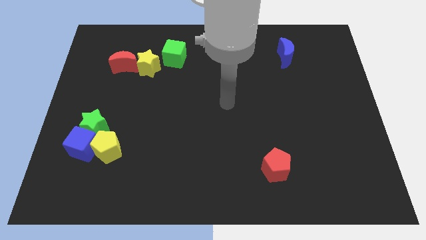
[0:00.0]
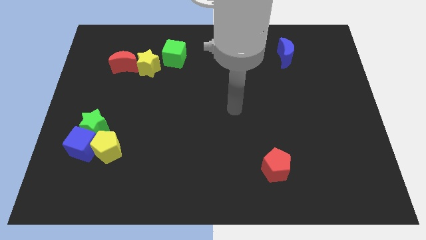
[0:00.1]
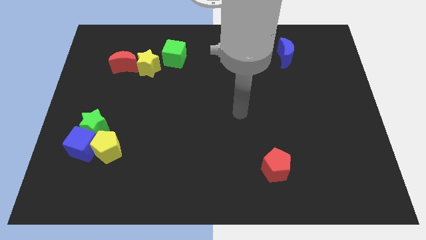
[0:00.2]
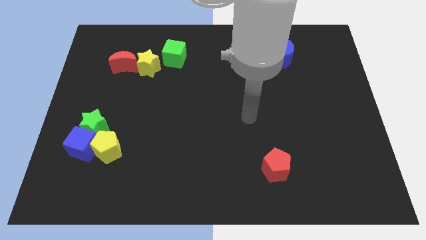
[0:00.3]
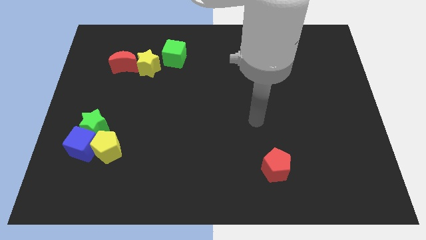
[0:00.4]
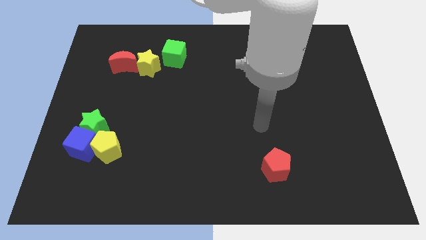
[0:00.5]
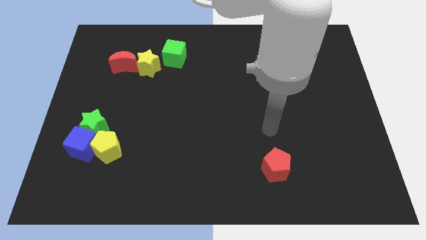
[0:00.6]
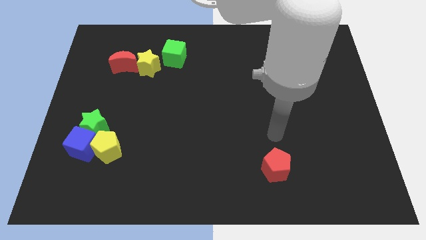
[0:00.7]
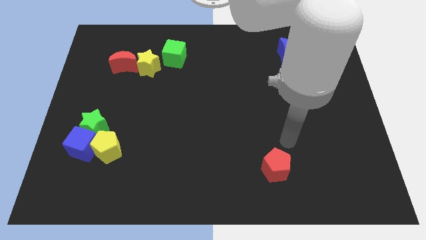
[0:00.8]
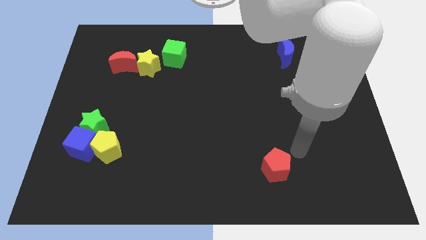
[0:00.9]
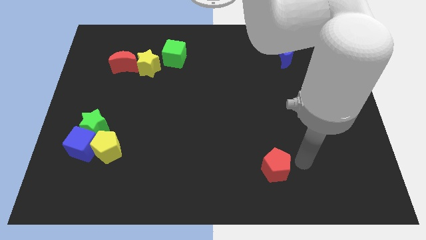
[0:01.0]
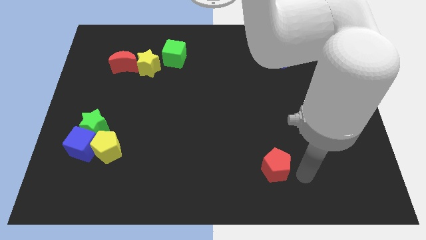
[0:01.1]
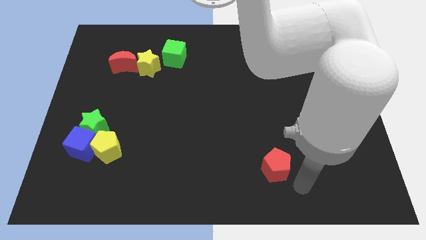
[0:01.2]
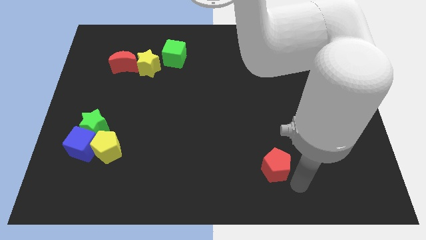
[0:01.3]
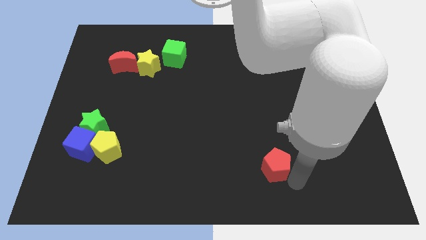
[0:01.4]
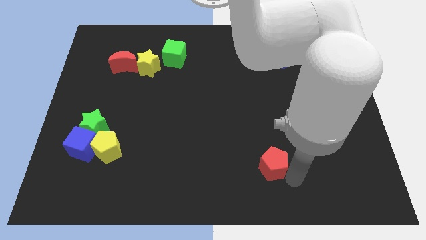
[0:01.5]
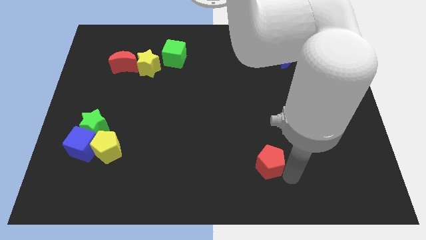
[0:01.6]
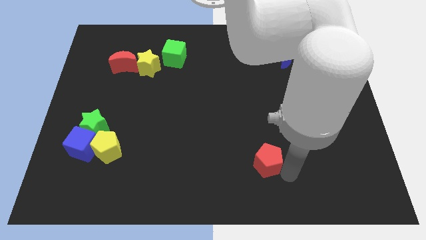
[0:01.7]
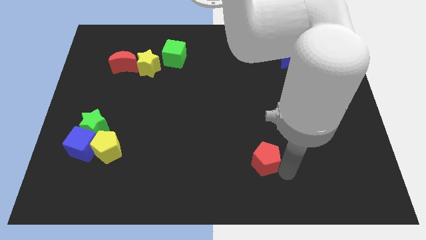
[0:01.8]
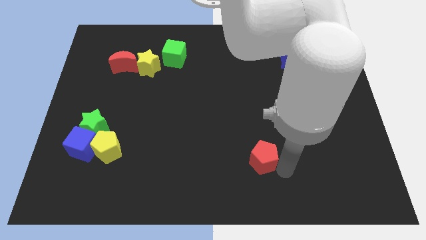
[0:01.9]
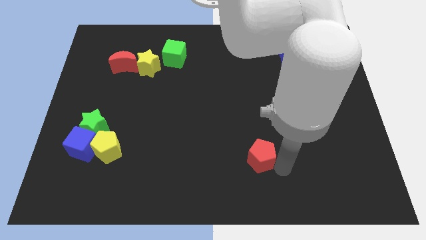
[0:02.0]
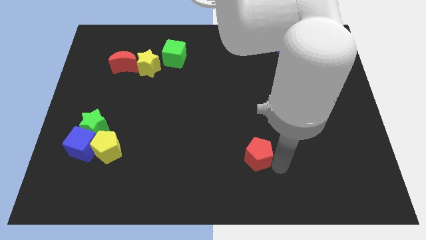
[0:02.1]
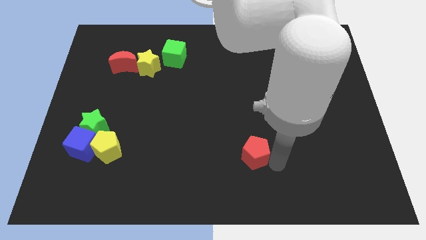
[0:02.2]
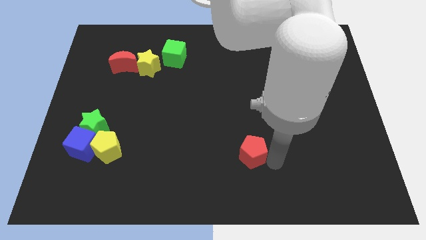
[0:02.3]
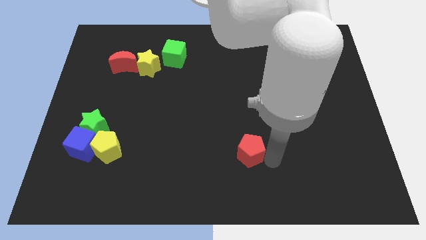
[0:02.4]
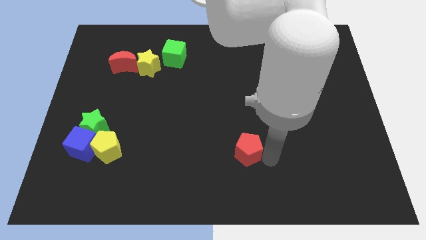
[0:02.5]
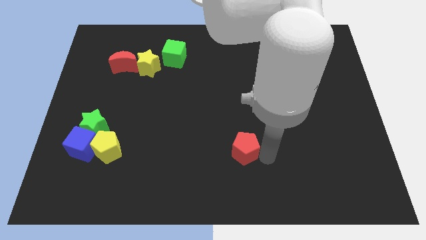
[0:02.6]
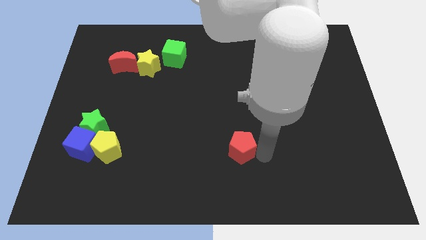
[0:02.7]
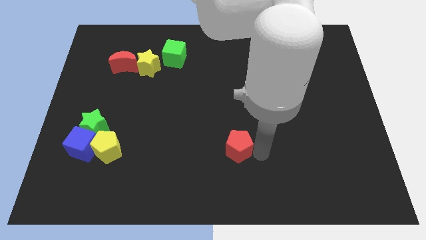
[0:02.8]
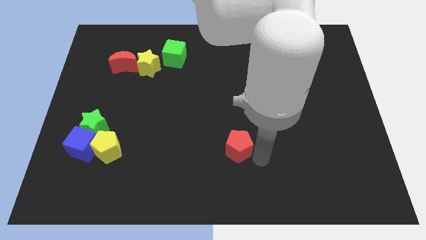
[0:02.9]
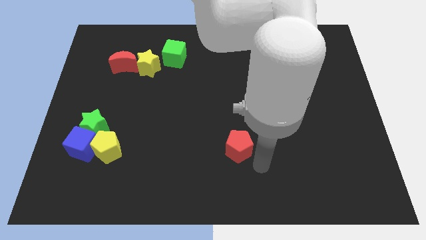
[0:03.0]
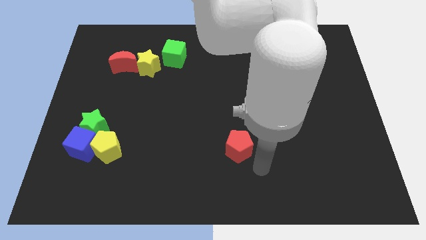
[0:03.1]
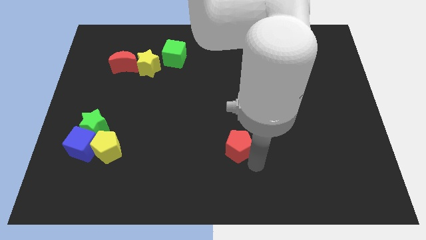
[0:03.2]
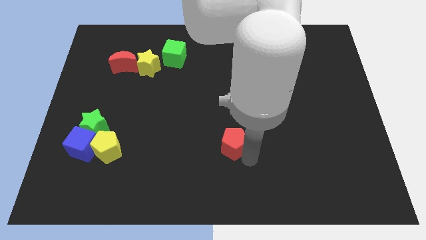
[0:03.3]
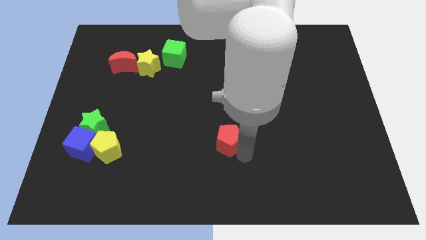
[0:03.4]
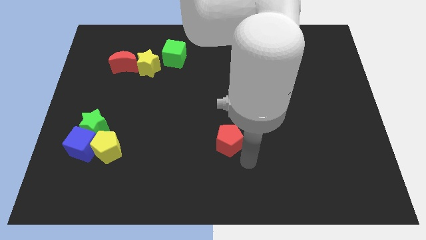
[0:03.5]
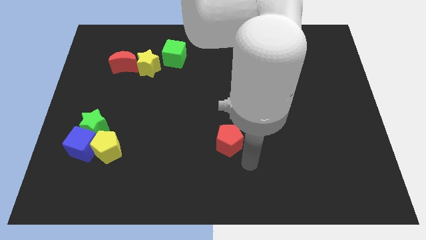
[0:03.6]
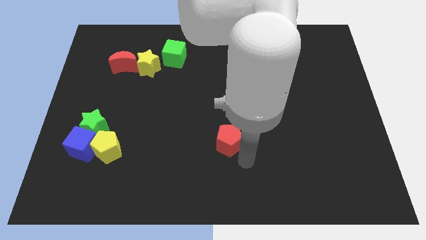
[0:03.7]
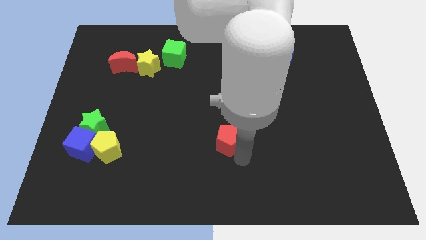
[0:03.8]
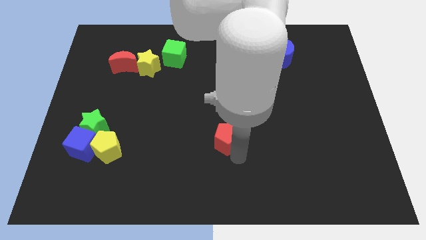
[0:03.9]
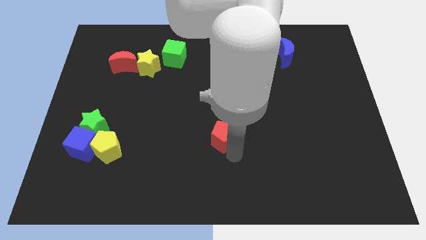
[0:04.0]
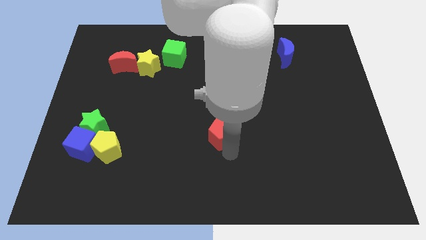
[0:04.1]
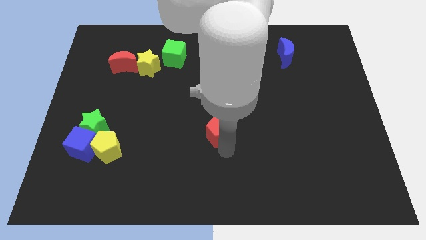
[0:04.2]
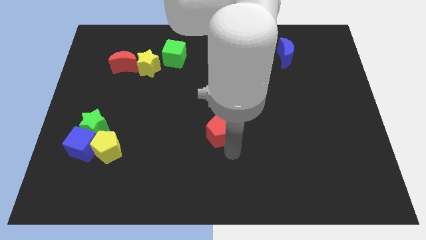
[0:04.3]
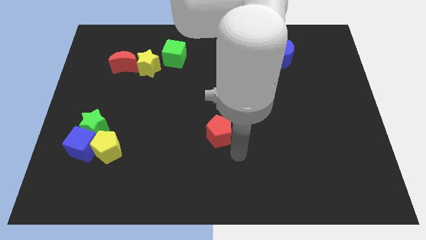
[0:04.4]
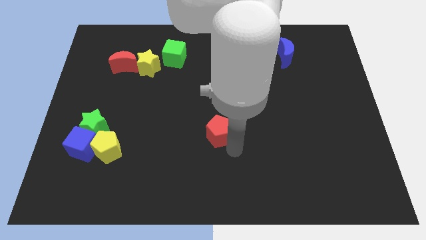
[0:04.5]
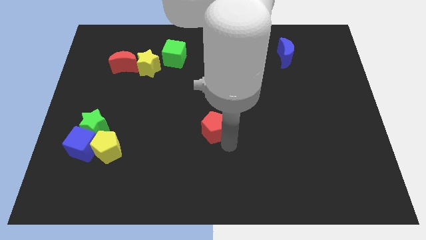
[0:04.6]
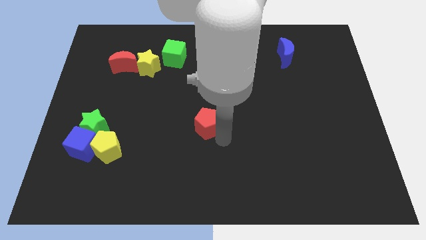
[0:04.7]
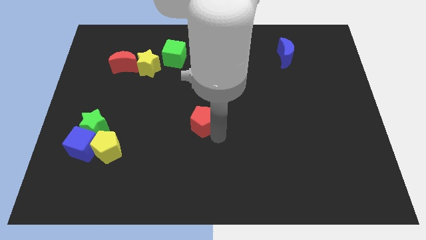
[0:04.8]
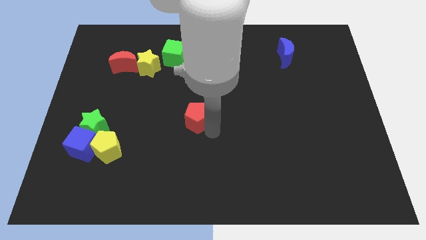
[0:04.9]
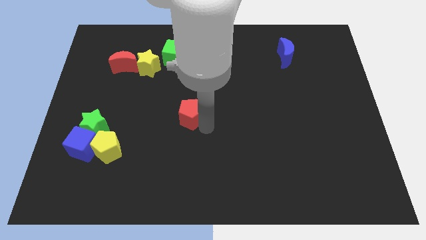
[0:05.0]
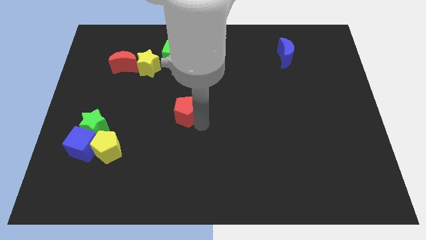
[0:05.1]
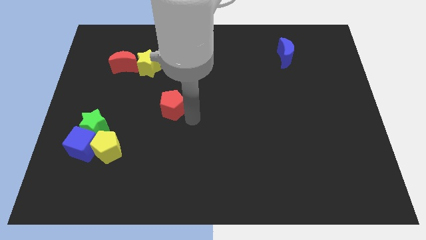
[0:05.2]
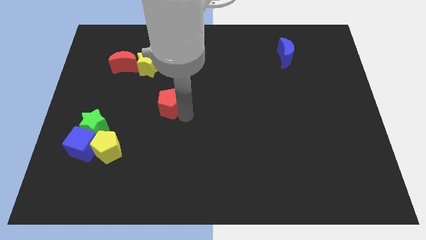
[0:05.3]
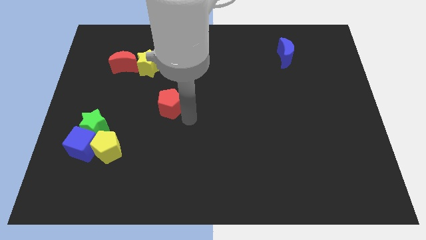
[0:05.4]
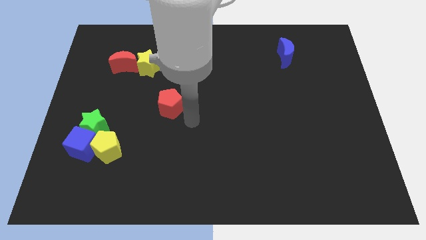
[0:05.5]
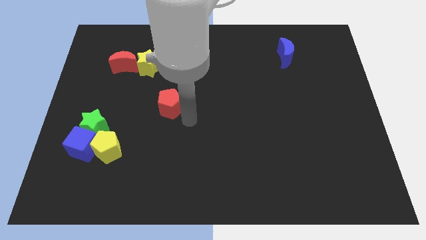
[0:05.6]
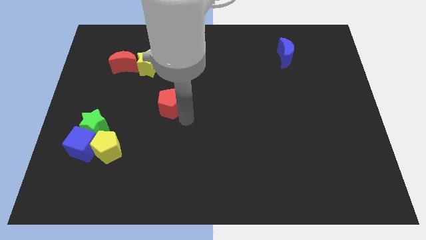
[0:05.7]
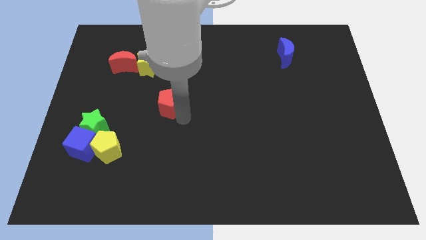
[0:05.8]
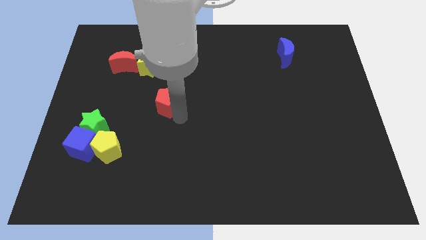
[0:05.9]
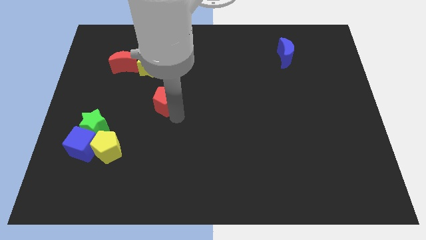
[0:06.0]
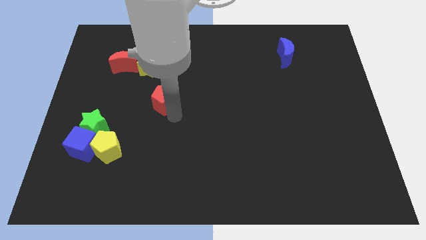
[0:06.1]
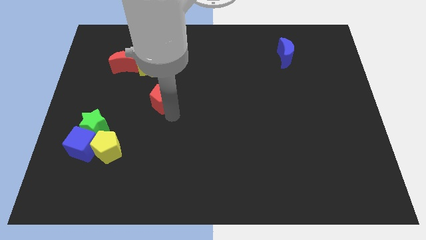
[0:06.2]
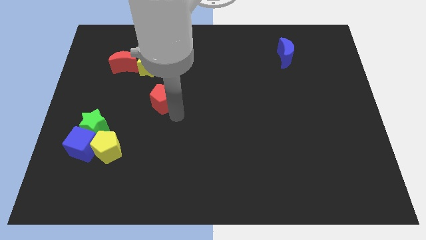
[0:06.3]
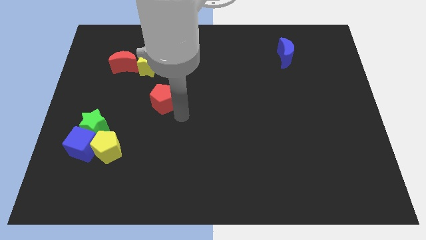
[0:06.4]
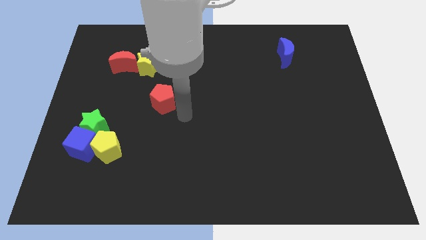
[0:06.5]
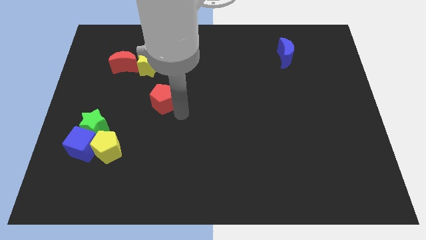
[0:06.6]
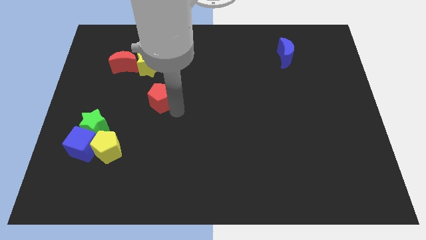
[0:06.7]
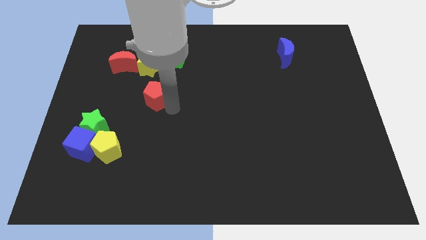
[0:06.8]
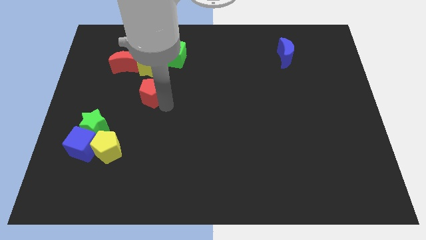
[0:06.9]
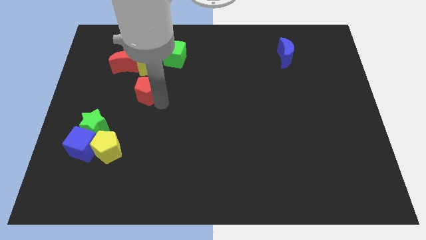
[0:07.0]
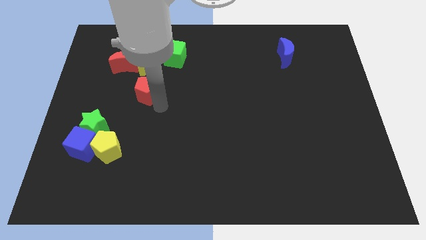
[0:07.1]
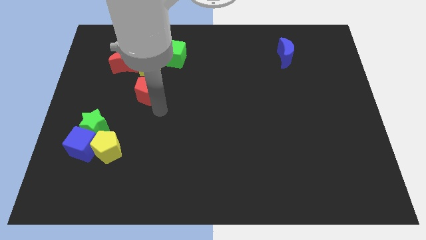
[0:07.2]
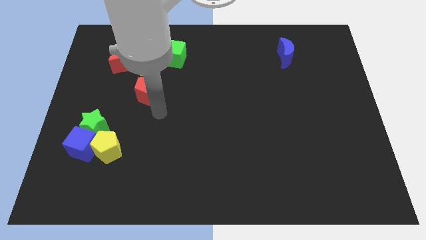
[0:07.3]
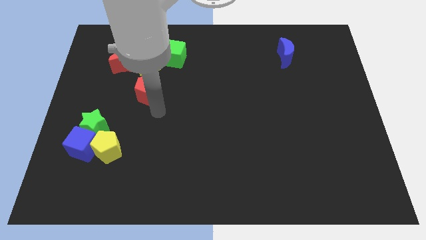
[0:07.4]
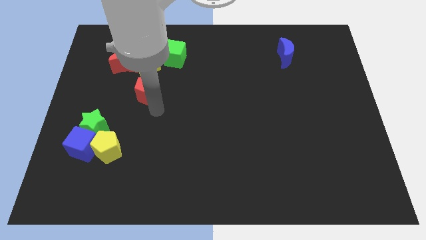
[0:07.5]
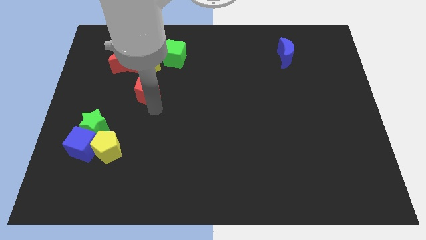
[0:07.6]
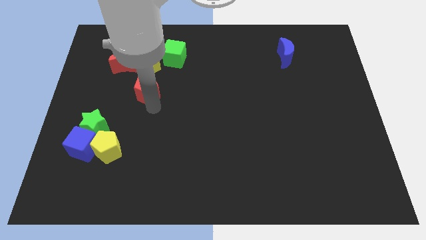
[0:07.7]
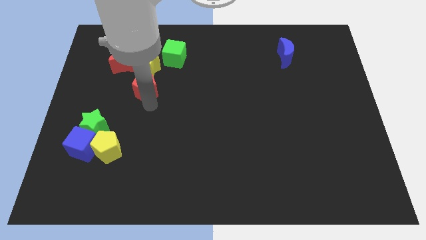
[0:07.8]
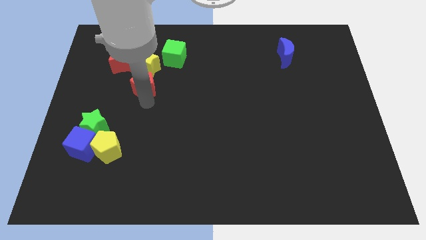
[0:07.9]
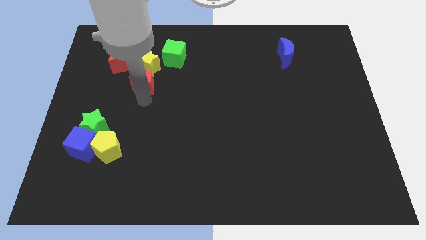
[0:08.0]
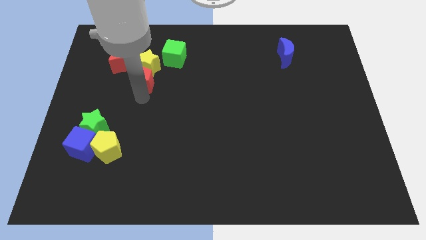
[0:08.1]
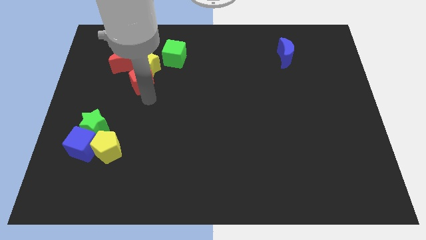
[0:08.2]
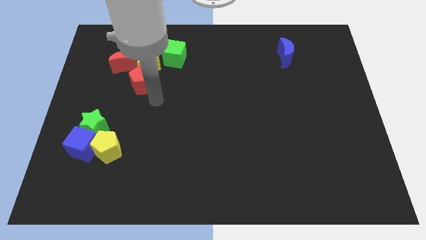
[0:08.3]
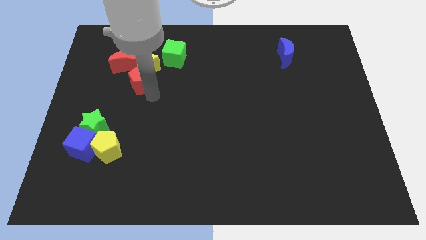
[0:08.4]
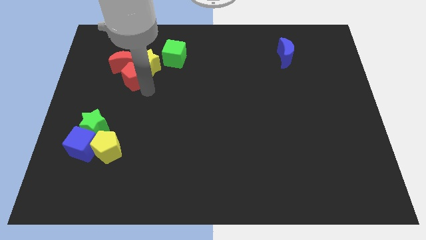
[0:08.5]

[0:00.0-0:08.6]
push the red pentagon to the red moon
